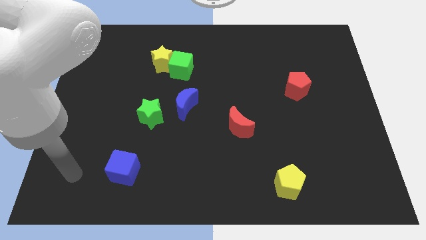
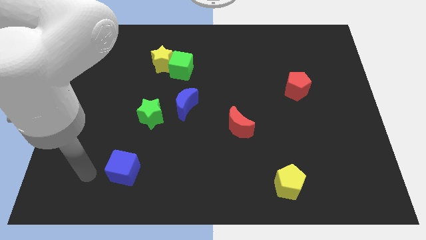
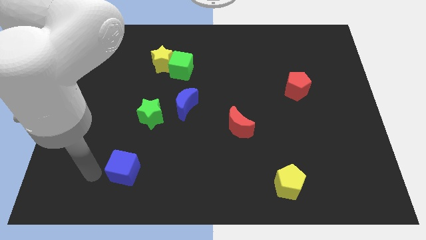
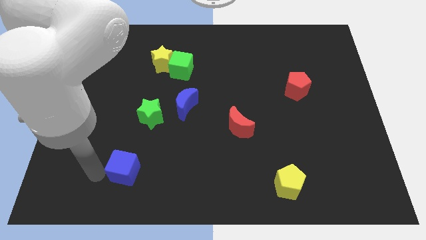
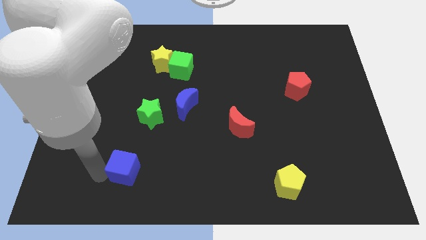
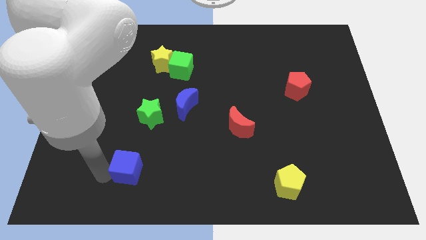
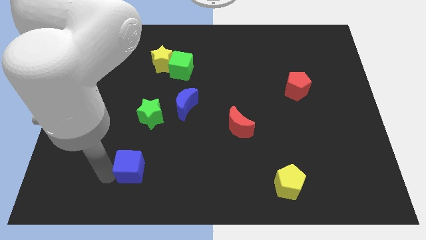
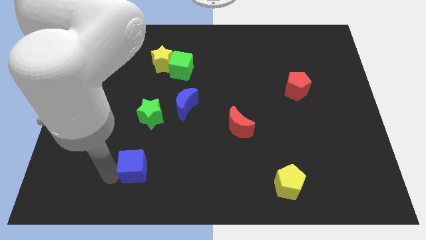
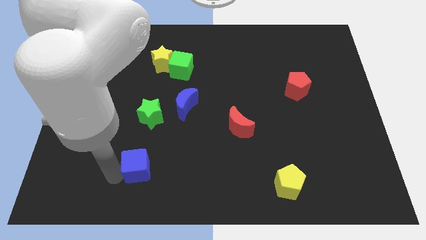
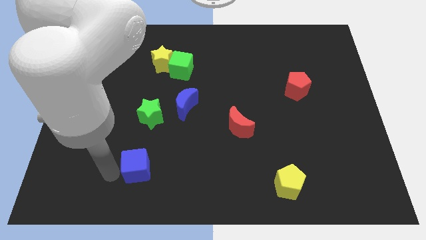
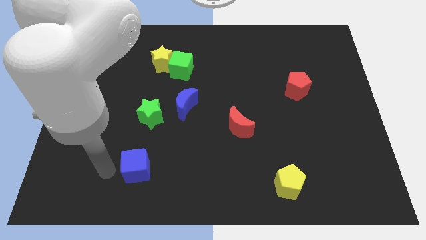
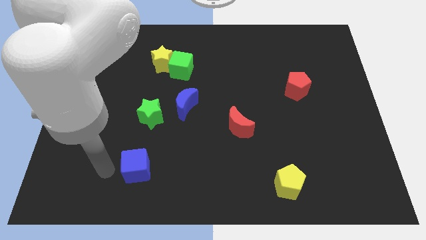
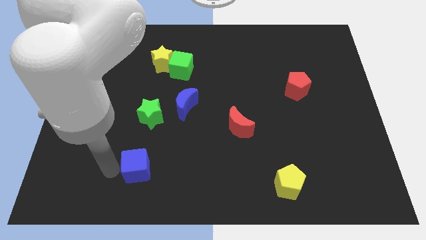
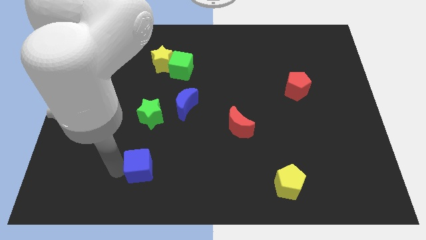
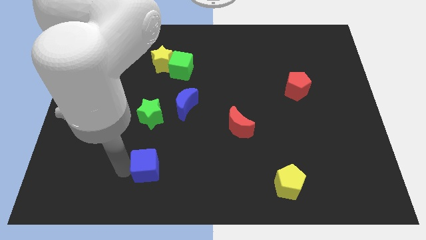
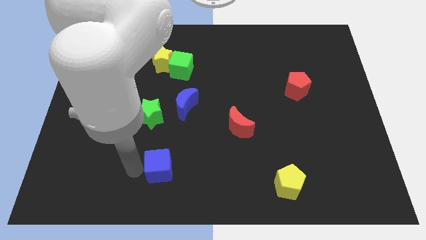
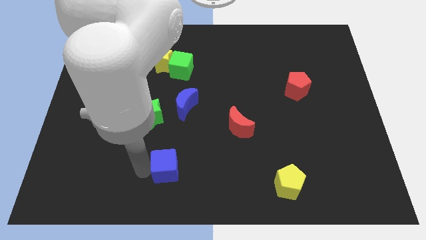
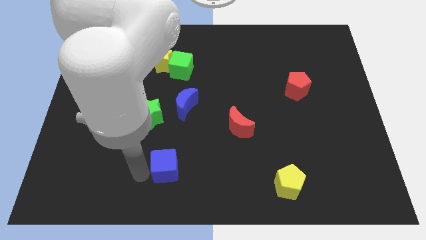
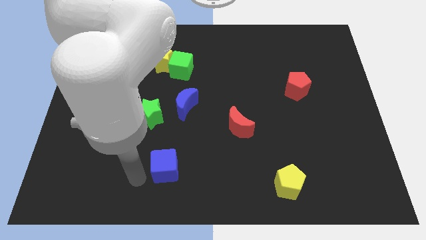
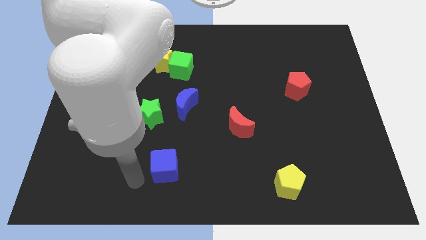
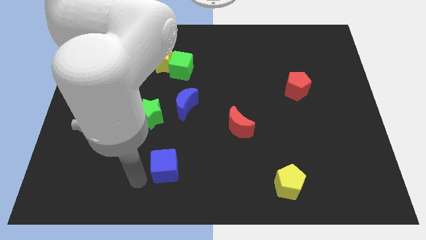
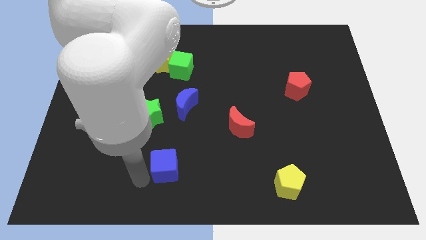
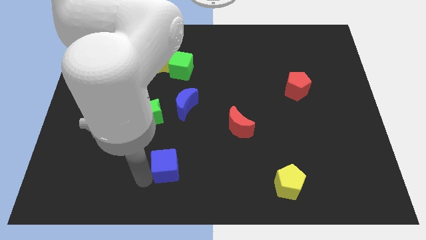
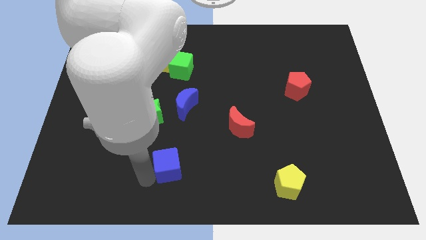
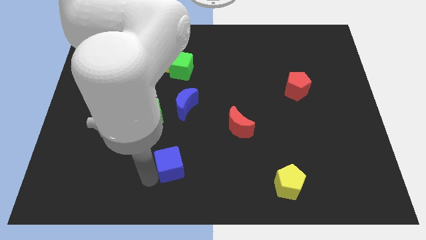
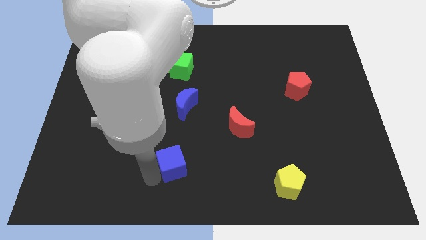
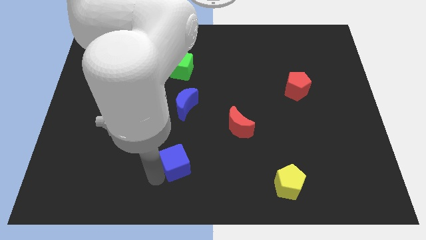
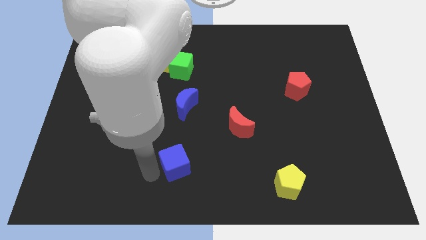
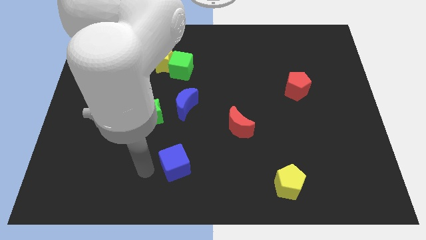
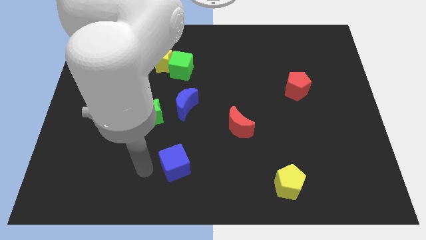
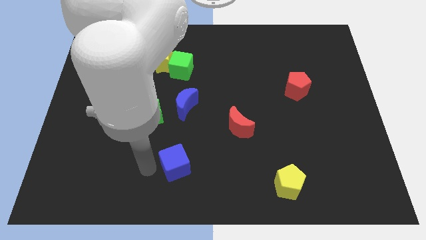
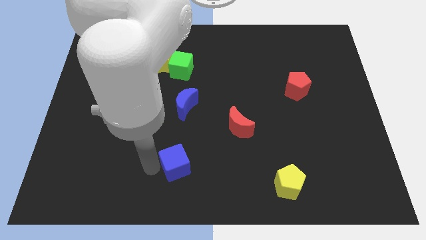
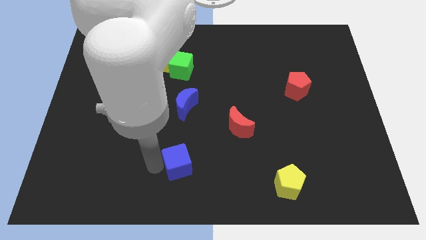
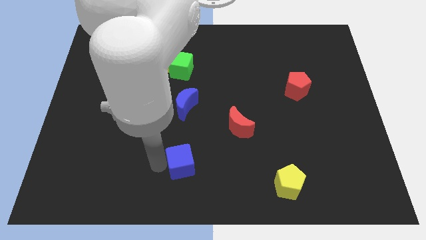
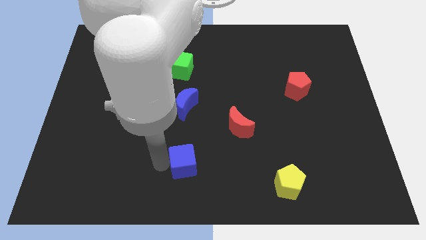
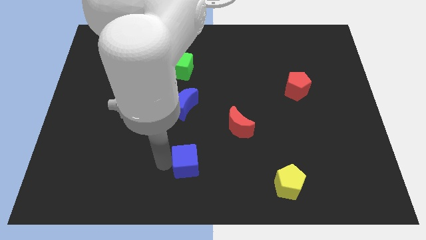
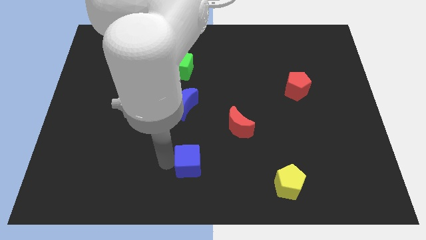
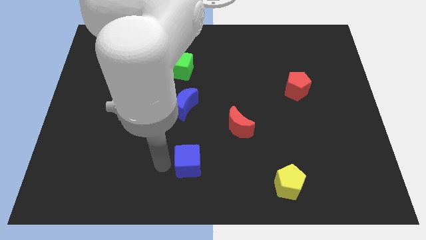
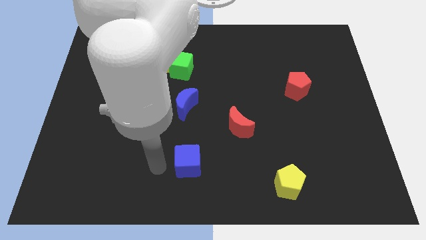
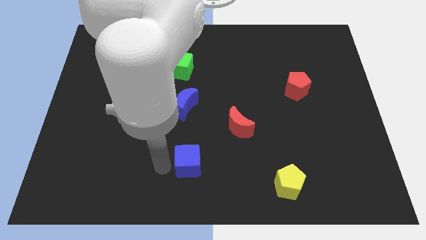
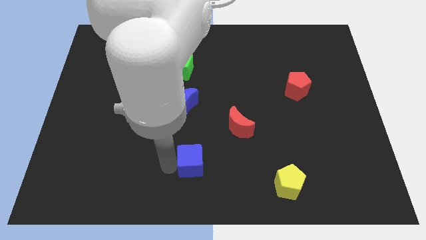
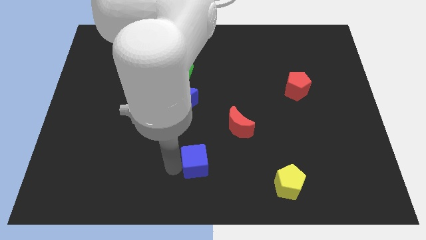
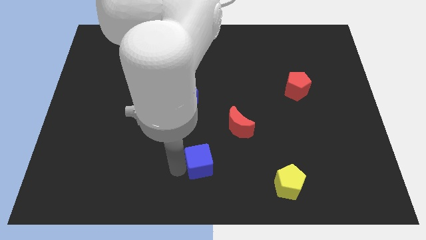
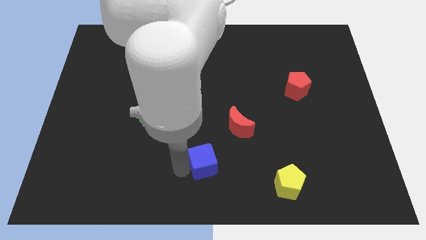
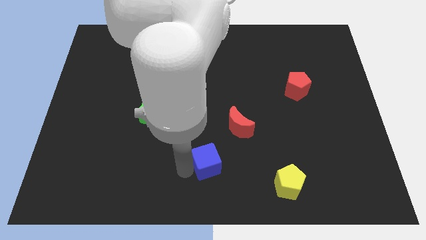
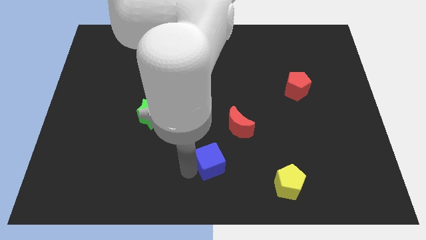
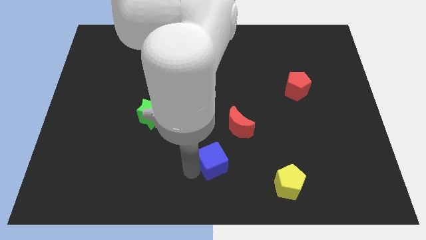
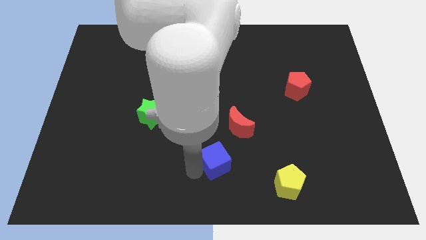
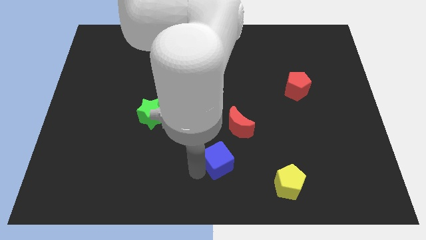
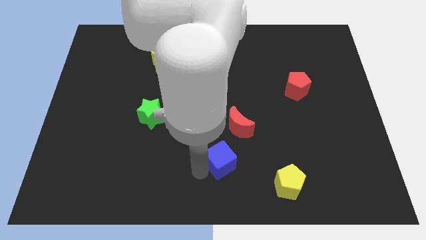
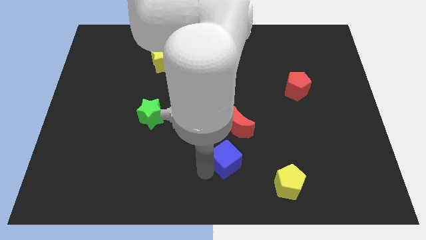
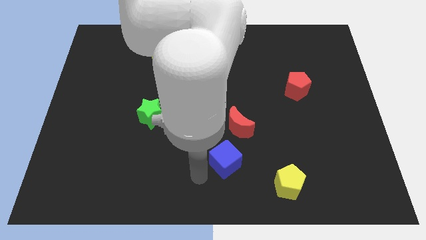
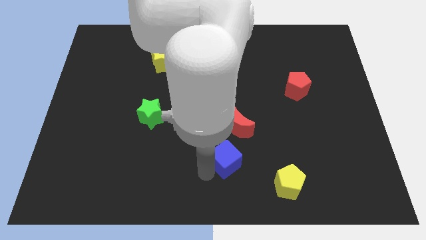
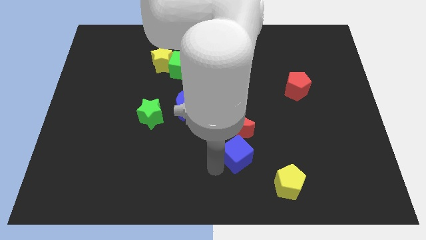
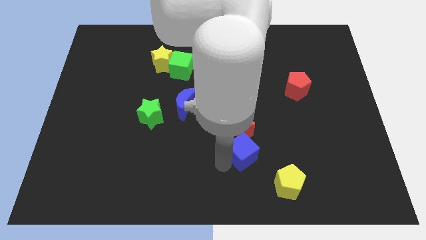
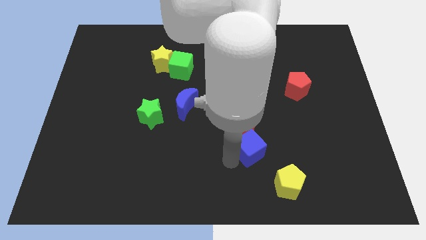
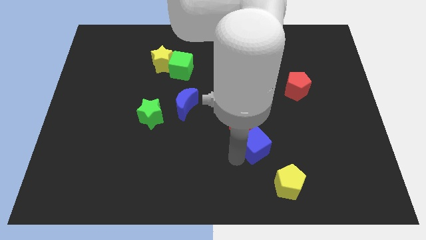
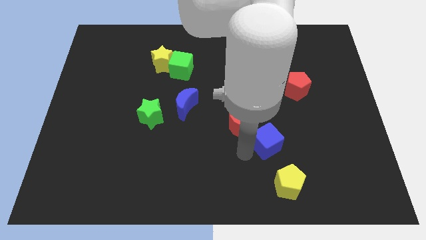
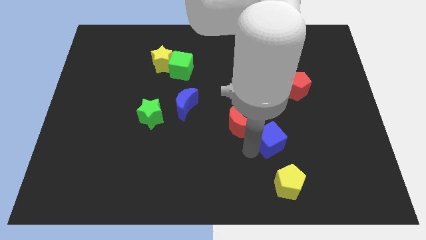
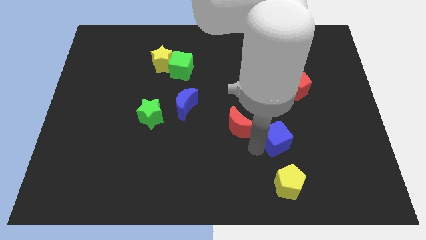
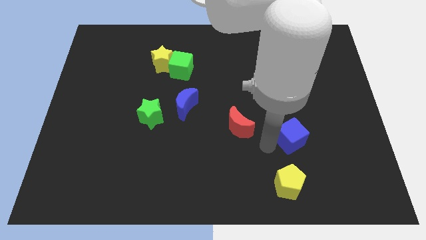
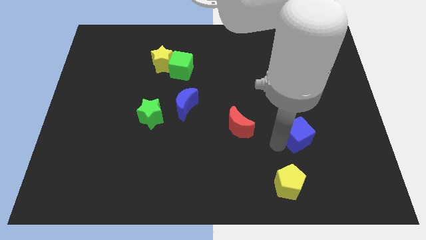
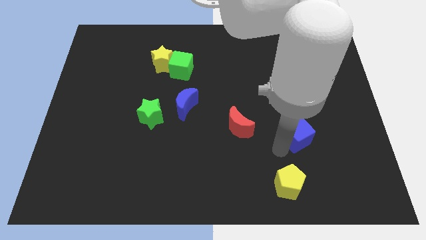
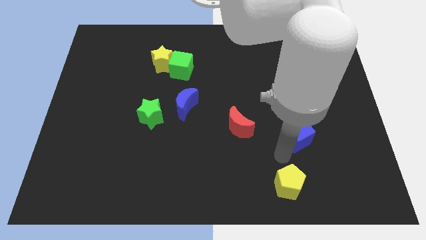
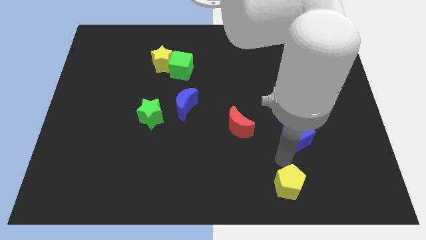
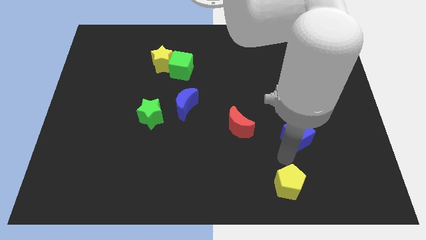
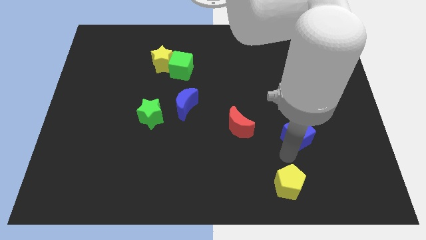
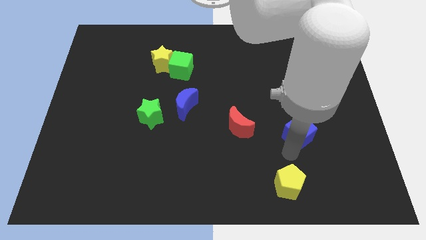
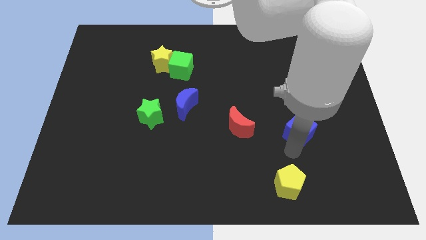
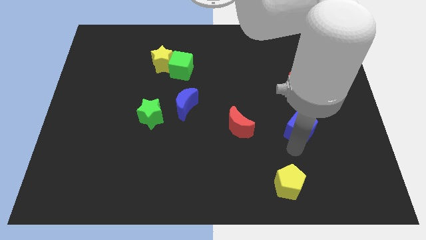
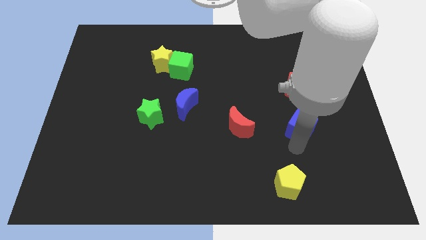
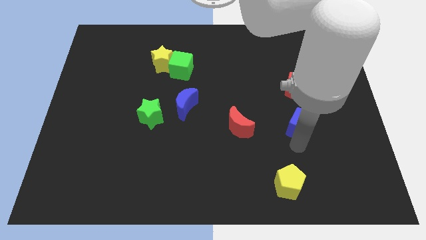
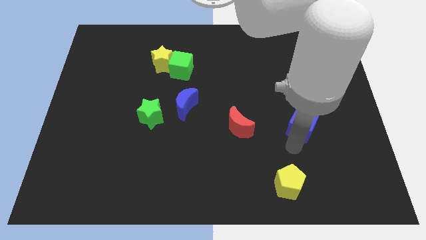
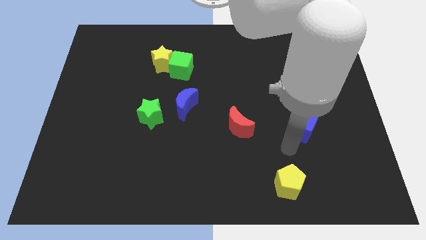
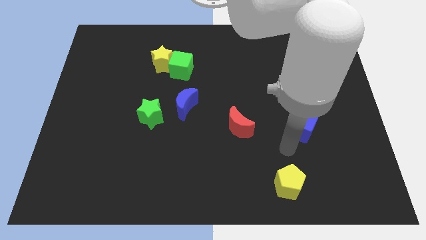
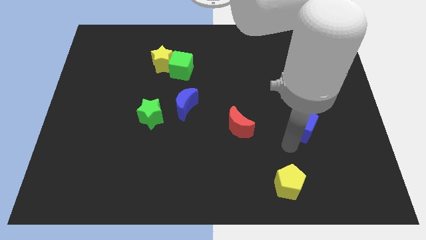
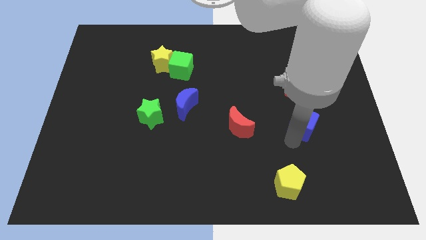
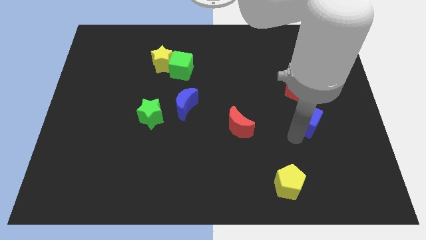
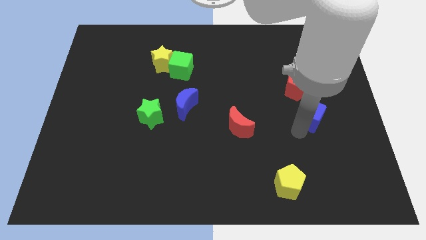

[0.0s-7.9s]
push the blue cube to the bottom right side of the red pentagon
